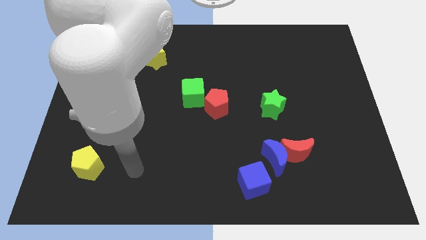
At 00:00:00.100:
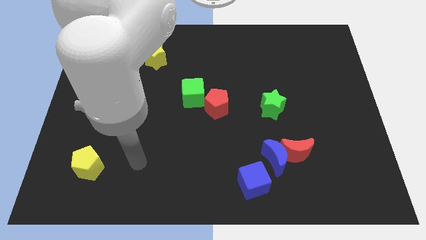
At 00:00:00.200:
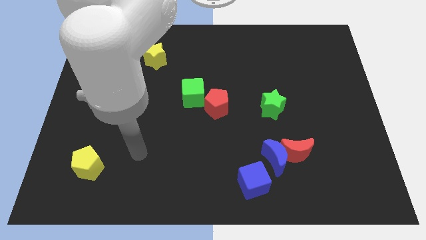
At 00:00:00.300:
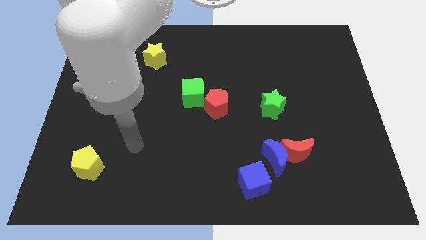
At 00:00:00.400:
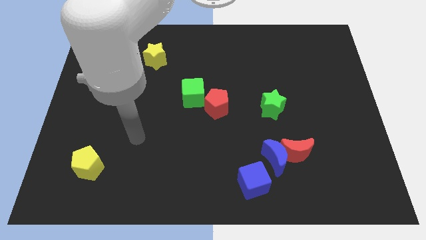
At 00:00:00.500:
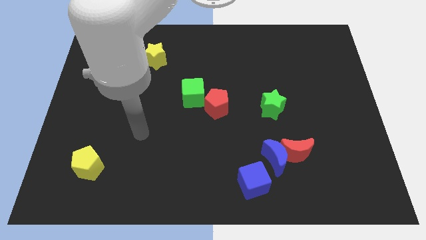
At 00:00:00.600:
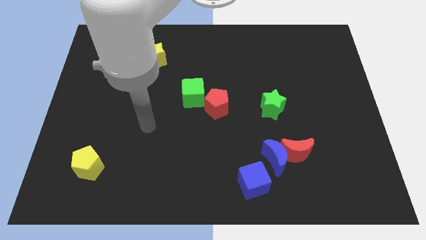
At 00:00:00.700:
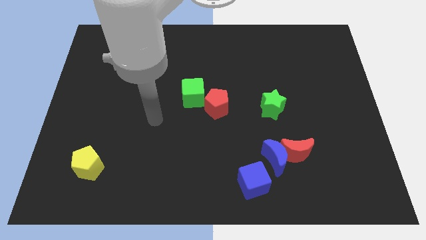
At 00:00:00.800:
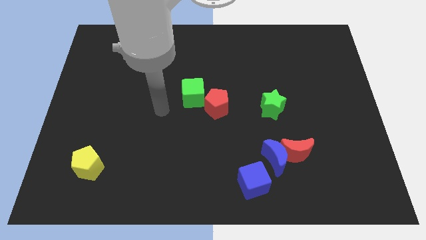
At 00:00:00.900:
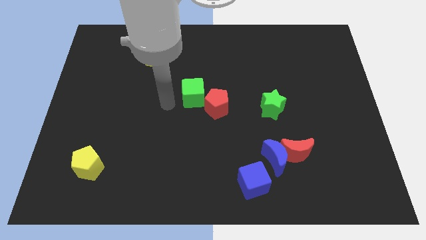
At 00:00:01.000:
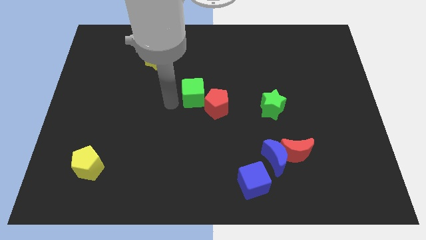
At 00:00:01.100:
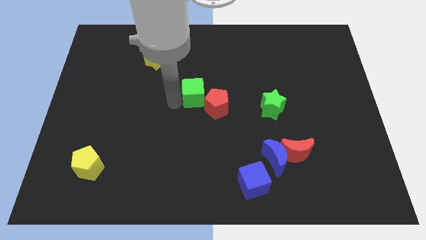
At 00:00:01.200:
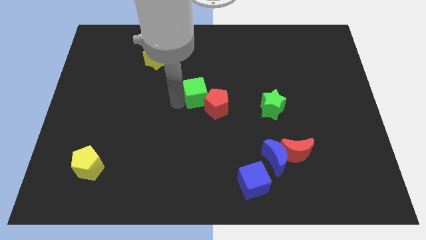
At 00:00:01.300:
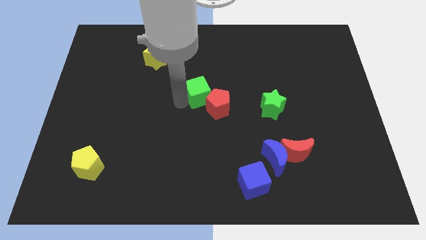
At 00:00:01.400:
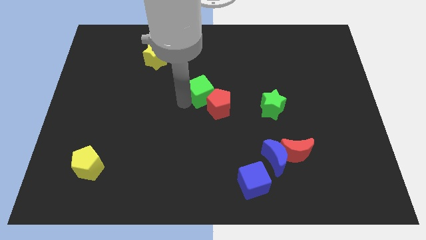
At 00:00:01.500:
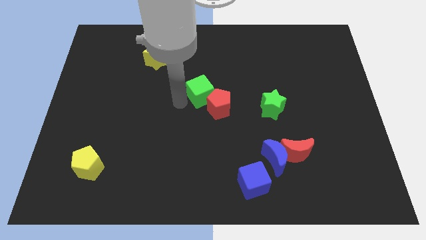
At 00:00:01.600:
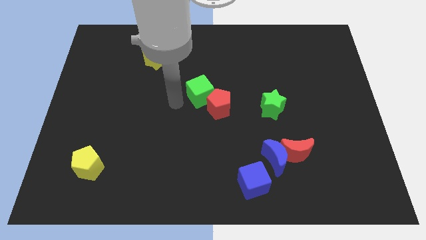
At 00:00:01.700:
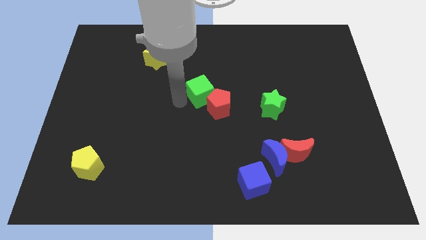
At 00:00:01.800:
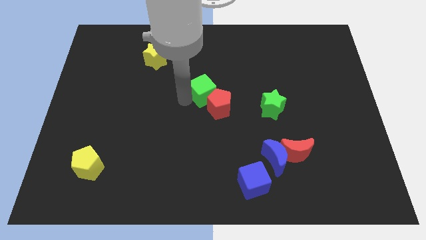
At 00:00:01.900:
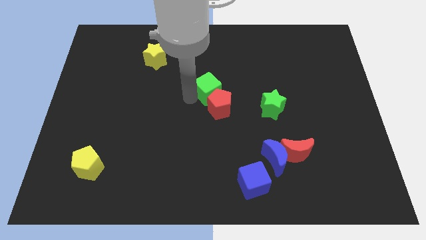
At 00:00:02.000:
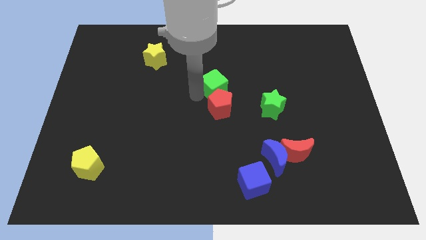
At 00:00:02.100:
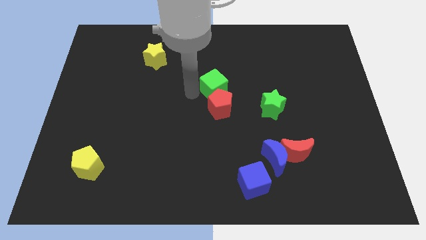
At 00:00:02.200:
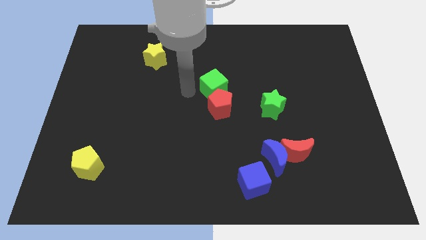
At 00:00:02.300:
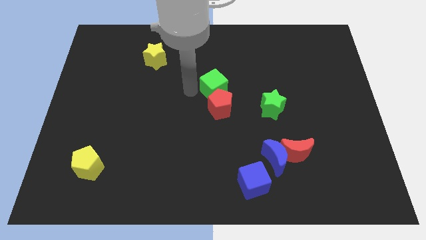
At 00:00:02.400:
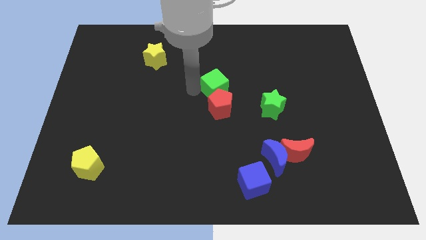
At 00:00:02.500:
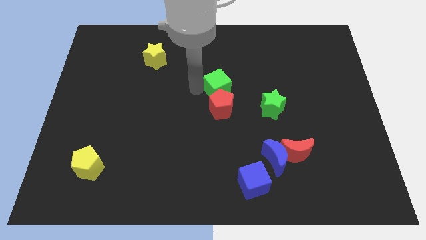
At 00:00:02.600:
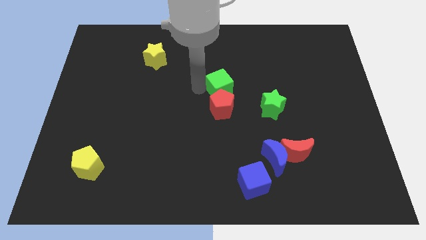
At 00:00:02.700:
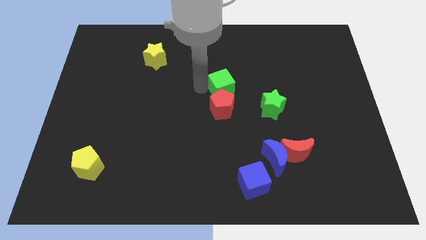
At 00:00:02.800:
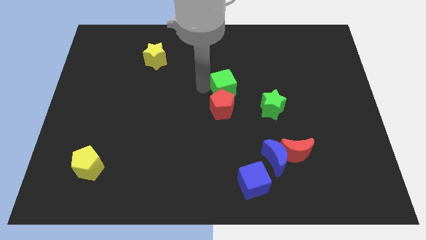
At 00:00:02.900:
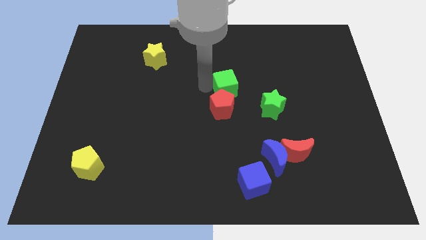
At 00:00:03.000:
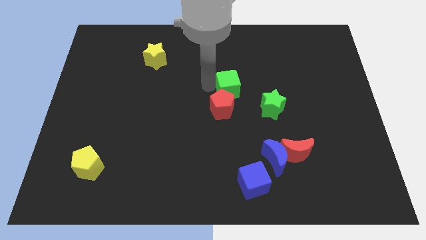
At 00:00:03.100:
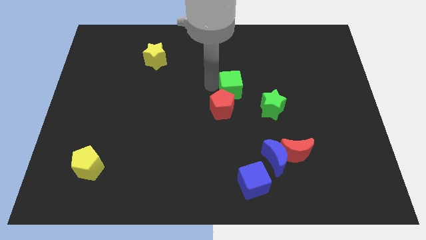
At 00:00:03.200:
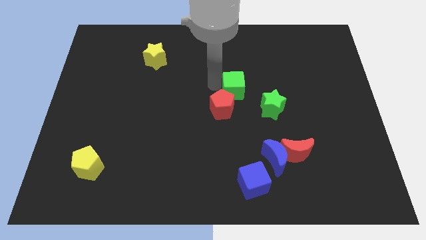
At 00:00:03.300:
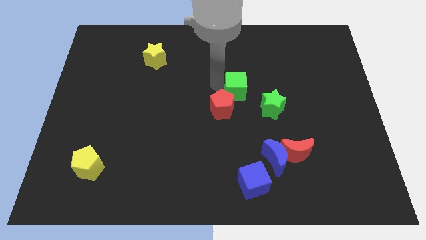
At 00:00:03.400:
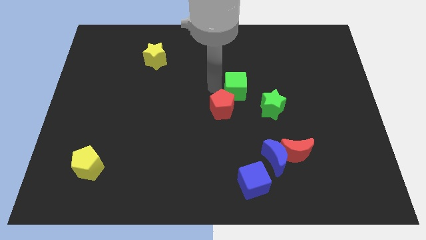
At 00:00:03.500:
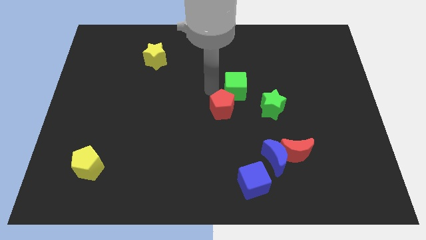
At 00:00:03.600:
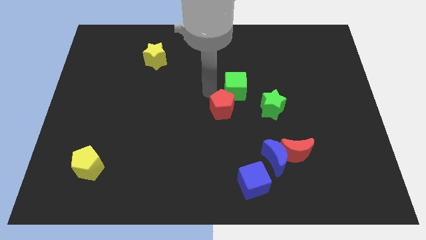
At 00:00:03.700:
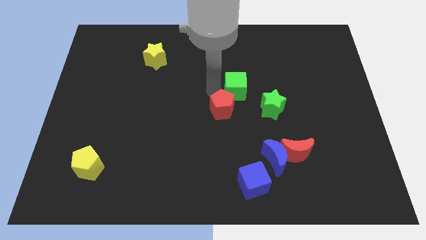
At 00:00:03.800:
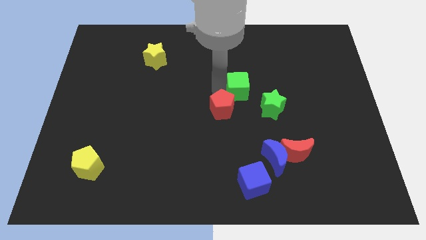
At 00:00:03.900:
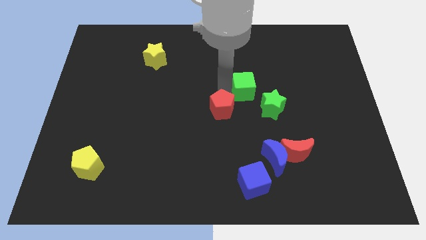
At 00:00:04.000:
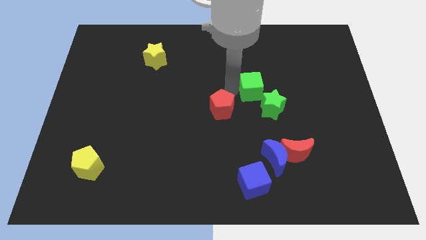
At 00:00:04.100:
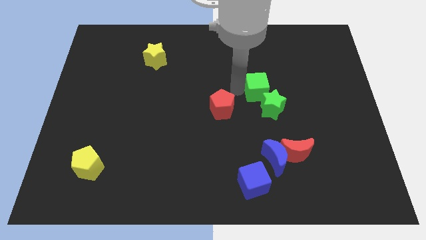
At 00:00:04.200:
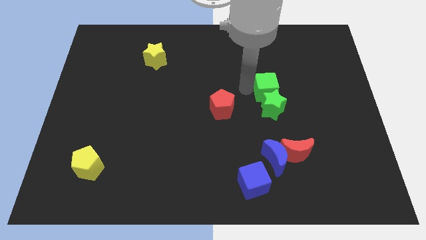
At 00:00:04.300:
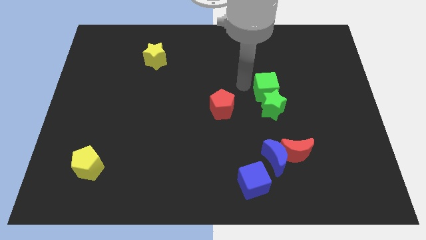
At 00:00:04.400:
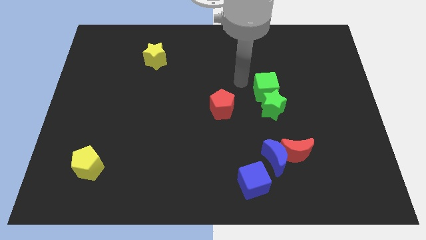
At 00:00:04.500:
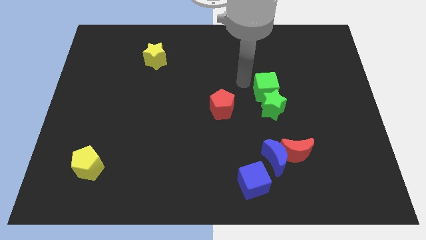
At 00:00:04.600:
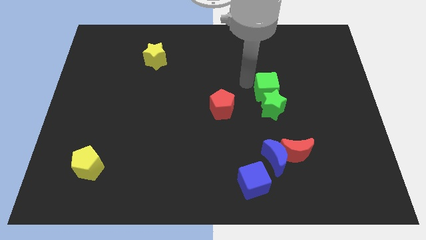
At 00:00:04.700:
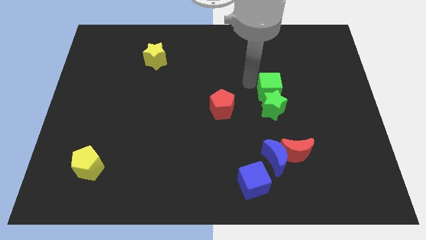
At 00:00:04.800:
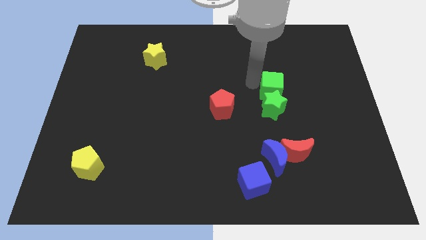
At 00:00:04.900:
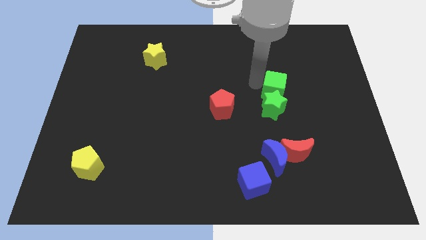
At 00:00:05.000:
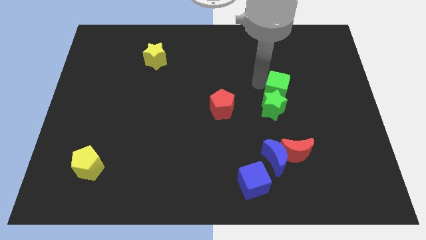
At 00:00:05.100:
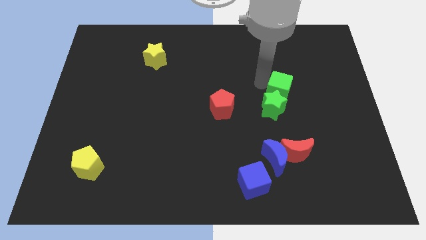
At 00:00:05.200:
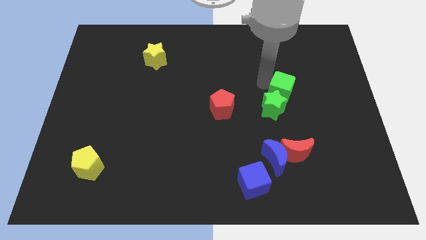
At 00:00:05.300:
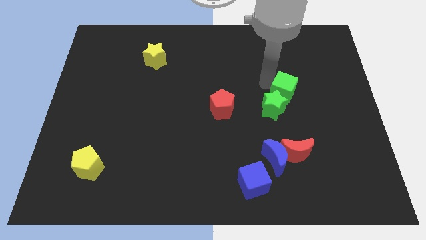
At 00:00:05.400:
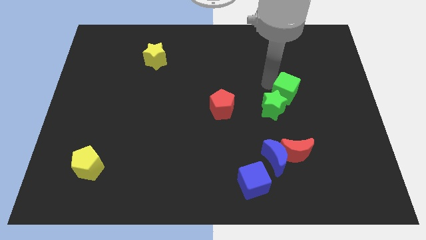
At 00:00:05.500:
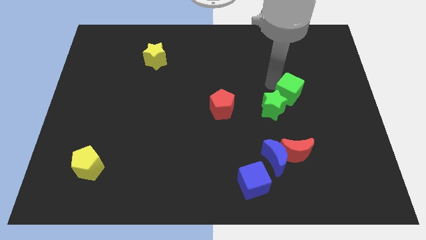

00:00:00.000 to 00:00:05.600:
put the green cube to the right side of the green star
